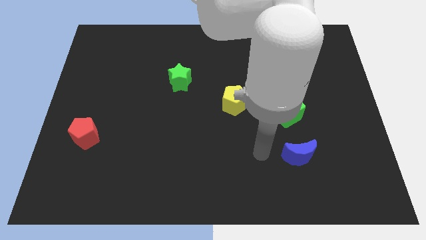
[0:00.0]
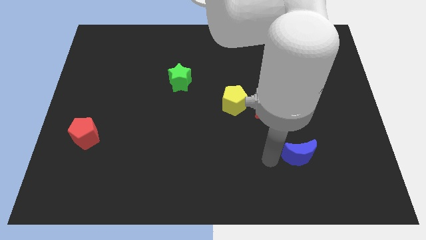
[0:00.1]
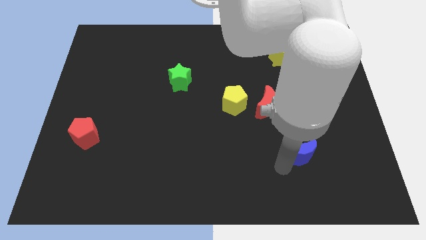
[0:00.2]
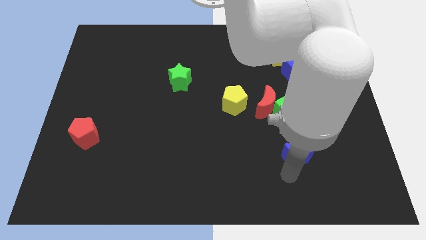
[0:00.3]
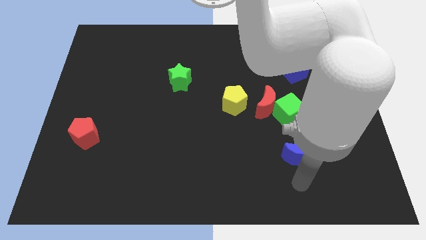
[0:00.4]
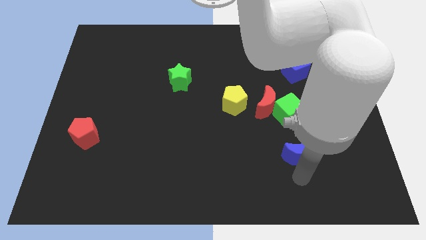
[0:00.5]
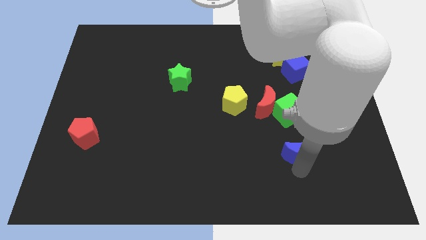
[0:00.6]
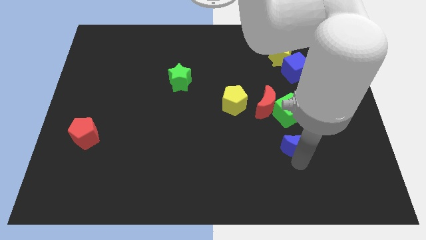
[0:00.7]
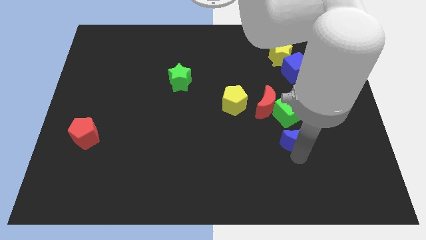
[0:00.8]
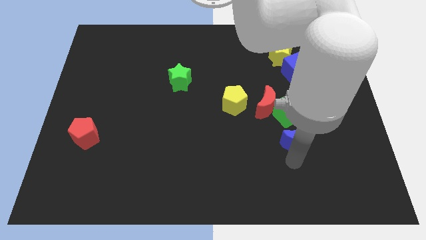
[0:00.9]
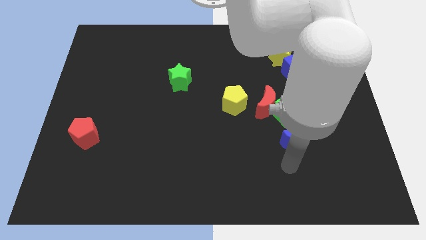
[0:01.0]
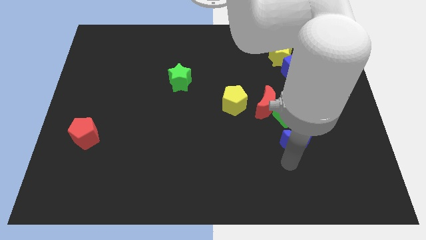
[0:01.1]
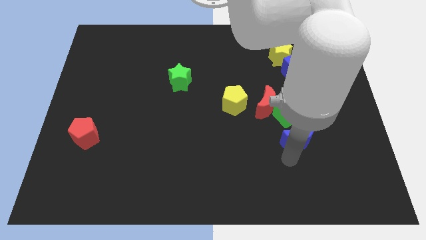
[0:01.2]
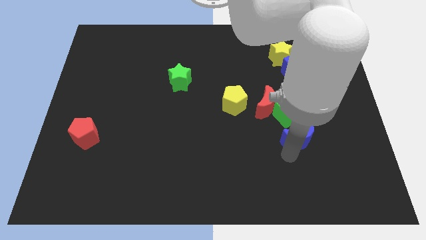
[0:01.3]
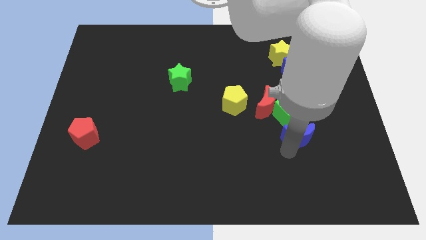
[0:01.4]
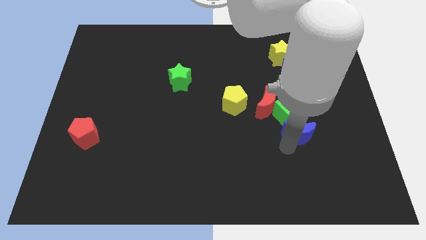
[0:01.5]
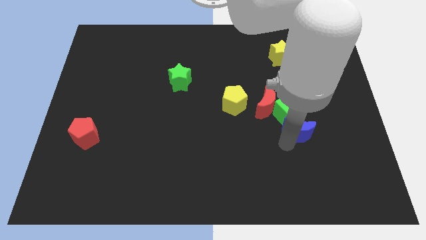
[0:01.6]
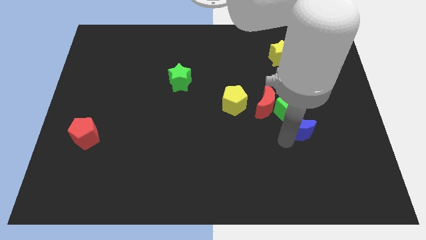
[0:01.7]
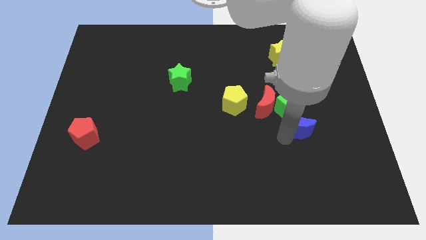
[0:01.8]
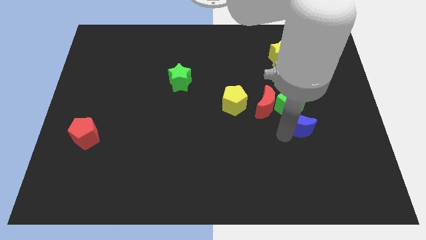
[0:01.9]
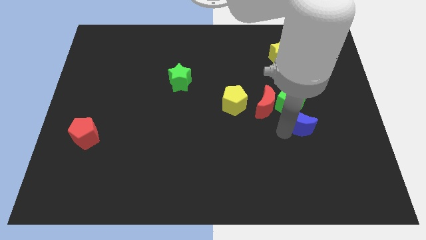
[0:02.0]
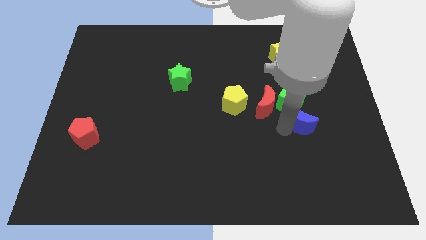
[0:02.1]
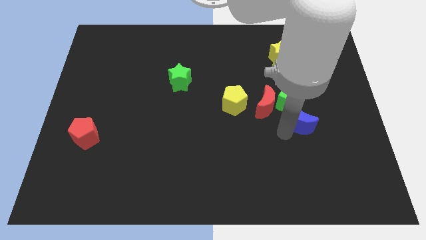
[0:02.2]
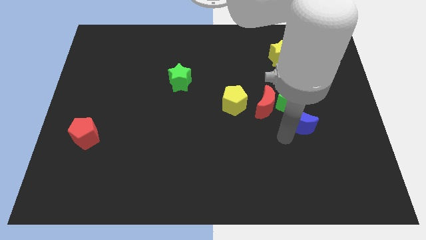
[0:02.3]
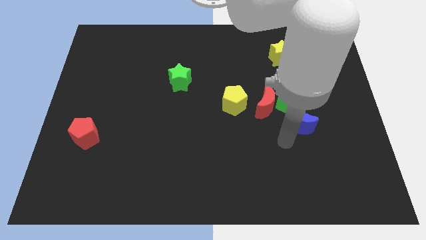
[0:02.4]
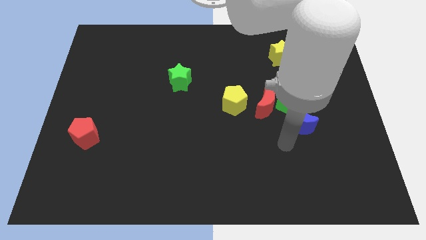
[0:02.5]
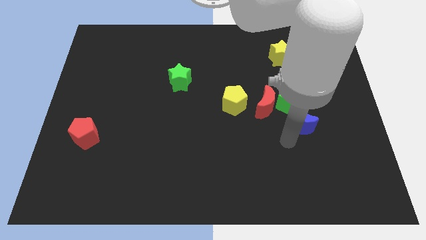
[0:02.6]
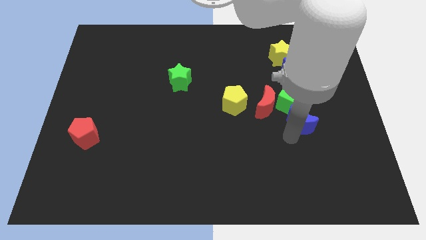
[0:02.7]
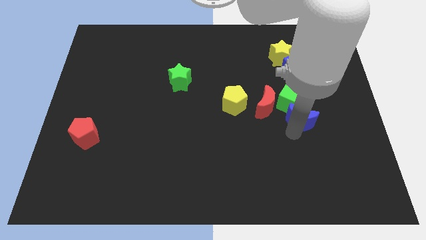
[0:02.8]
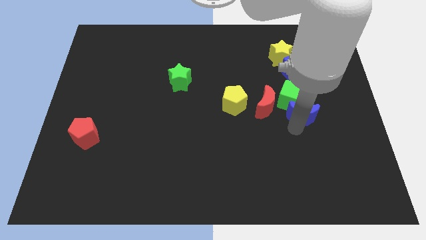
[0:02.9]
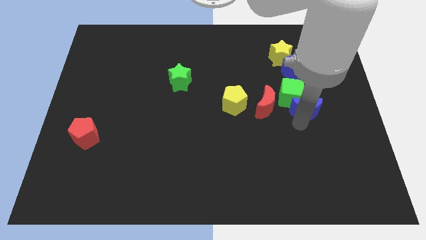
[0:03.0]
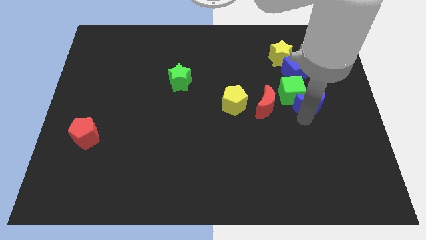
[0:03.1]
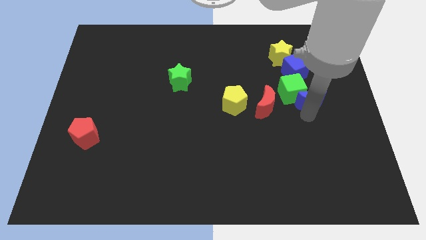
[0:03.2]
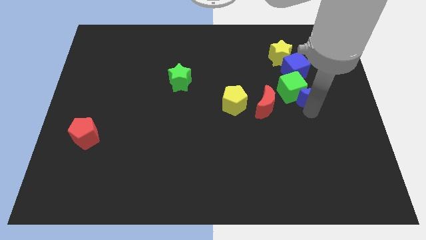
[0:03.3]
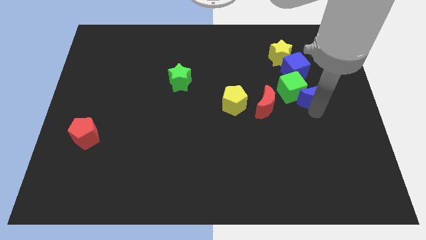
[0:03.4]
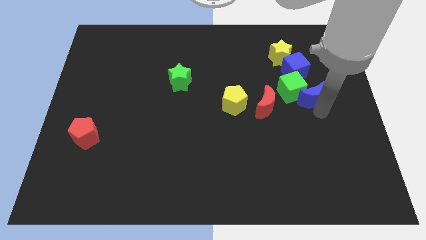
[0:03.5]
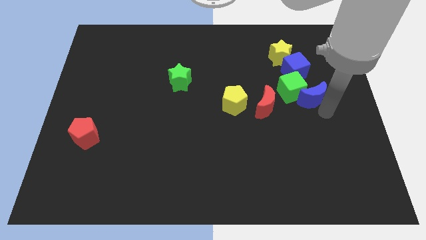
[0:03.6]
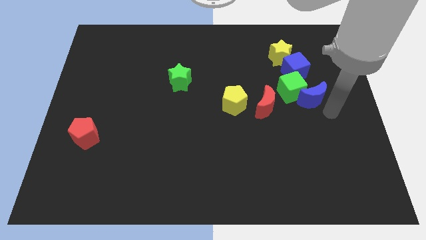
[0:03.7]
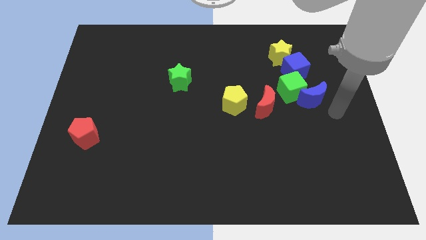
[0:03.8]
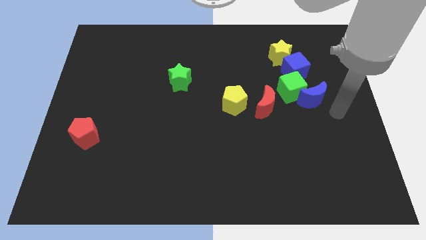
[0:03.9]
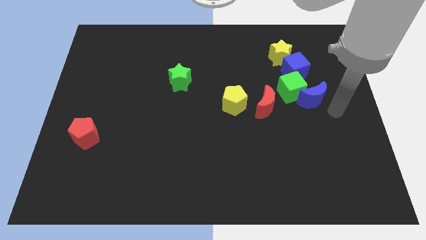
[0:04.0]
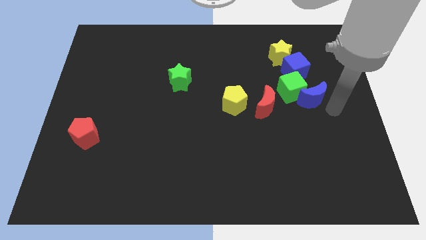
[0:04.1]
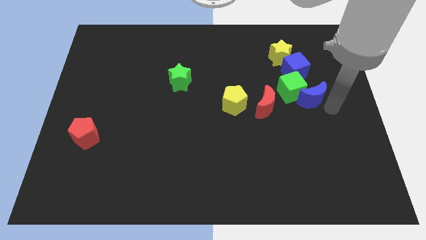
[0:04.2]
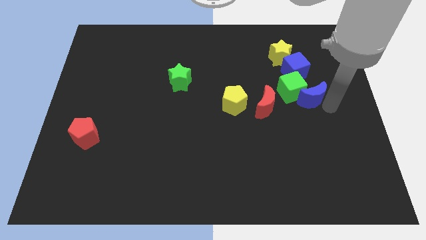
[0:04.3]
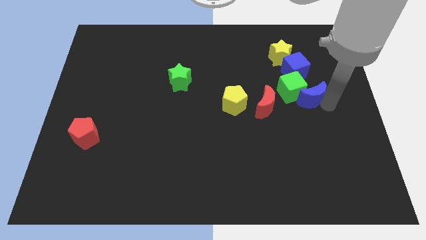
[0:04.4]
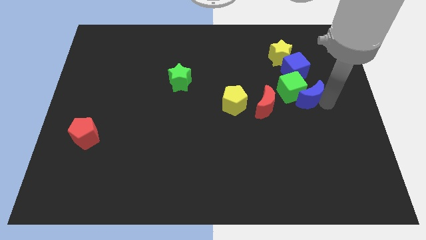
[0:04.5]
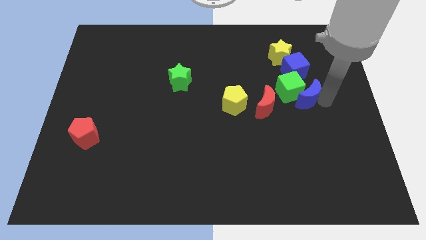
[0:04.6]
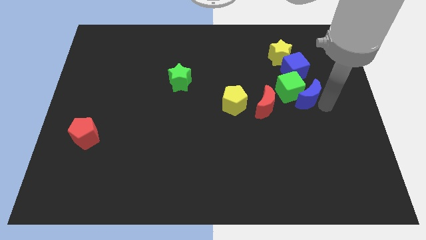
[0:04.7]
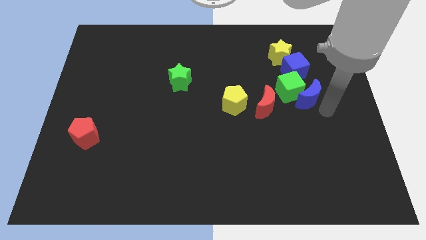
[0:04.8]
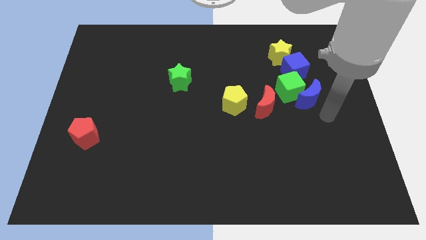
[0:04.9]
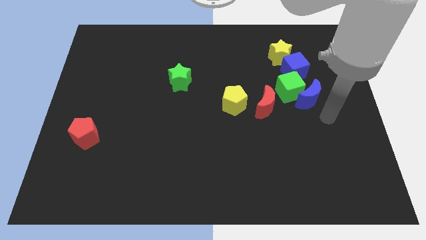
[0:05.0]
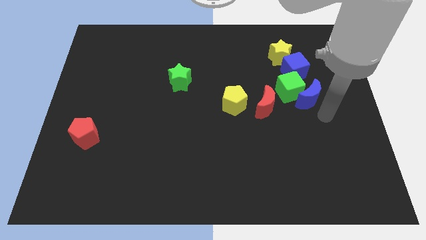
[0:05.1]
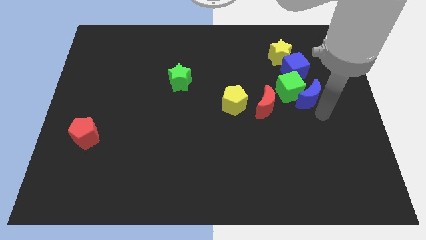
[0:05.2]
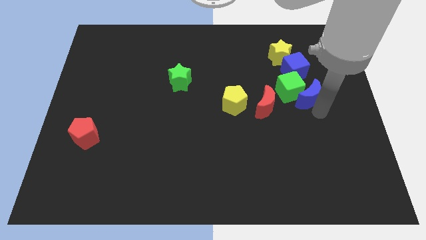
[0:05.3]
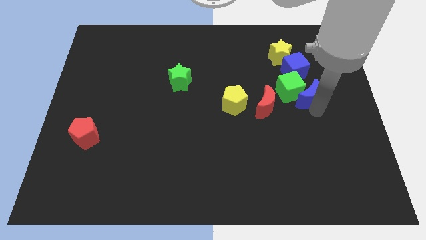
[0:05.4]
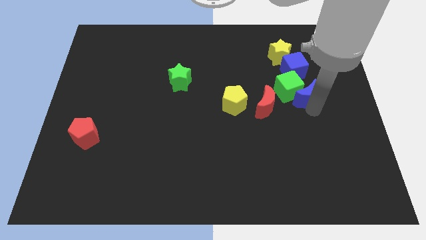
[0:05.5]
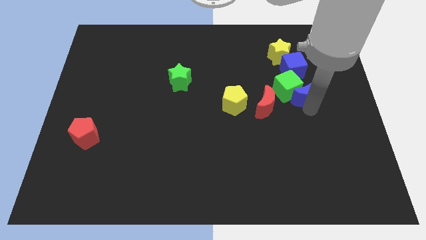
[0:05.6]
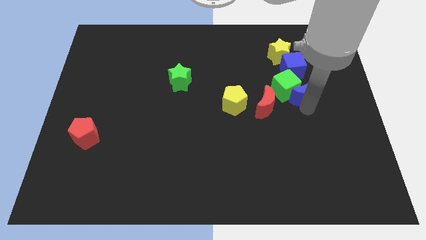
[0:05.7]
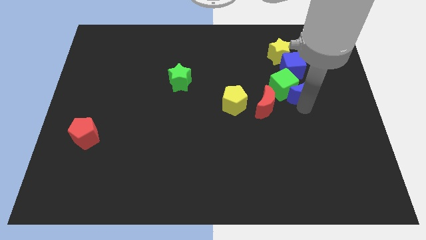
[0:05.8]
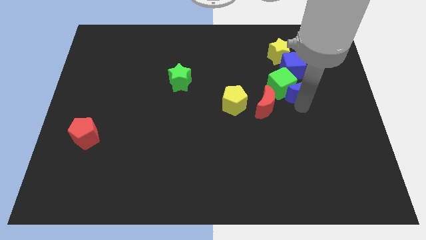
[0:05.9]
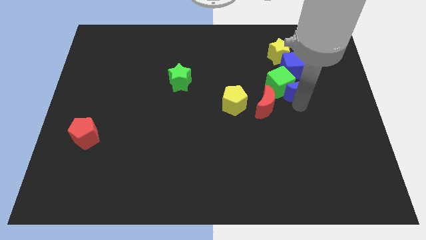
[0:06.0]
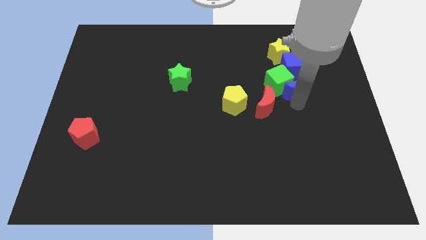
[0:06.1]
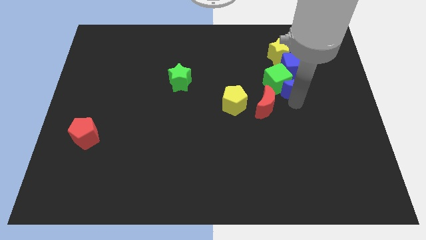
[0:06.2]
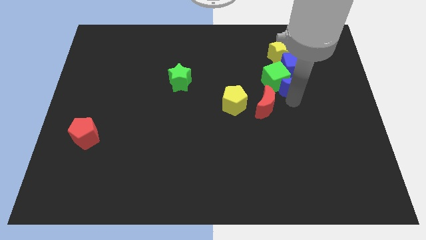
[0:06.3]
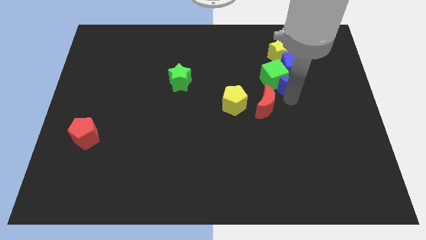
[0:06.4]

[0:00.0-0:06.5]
move the blue moon close to the blue cube

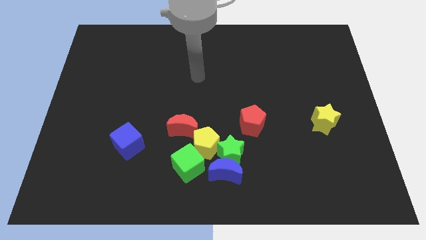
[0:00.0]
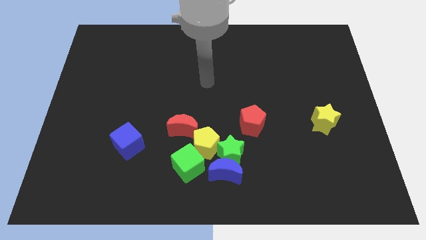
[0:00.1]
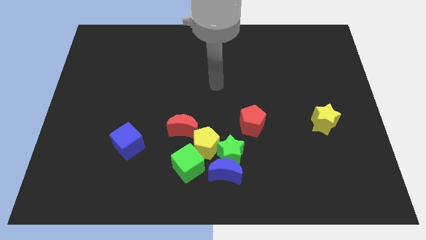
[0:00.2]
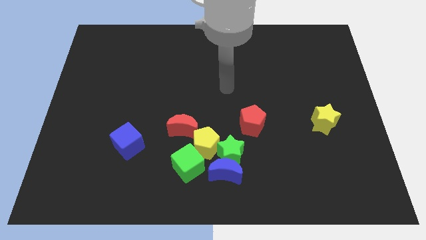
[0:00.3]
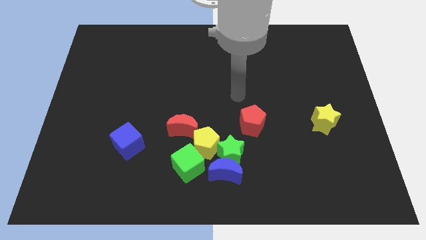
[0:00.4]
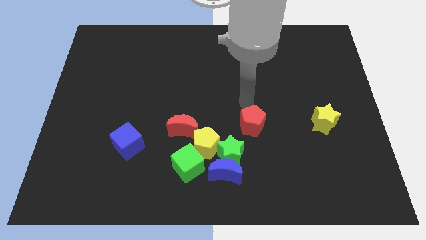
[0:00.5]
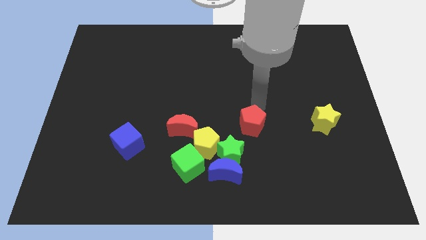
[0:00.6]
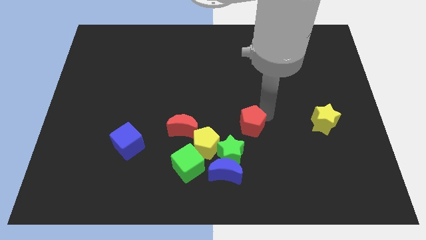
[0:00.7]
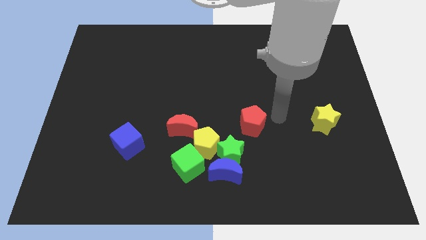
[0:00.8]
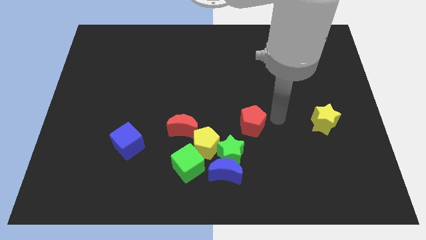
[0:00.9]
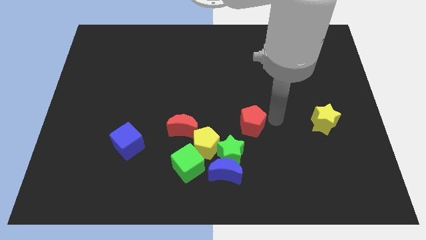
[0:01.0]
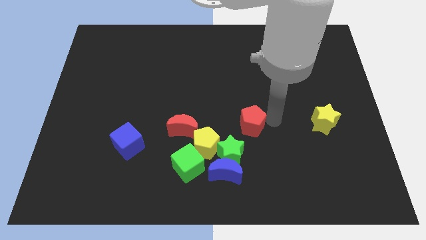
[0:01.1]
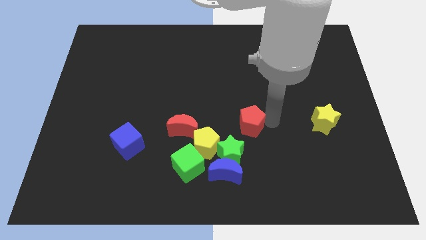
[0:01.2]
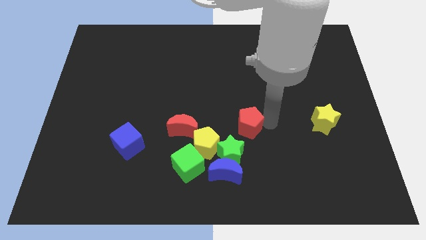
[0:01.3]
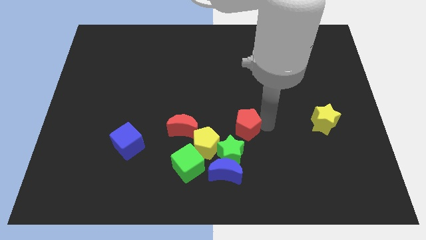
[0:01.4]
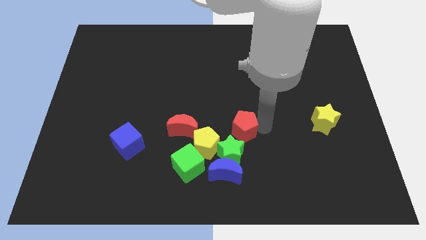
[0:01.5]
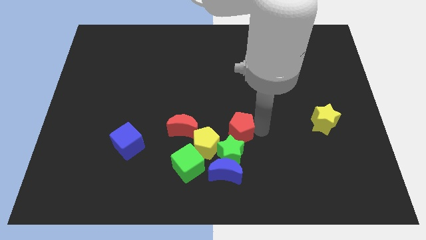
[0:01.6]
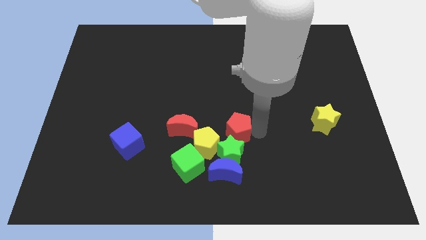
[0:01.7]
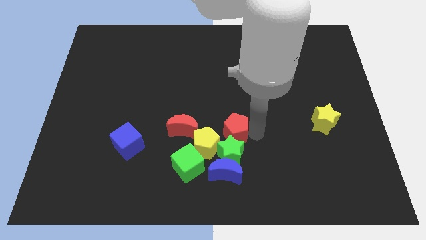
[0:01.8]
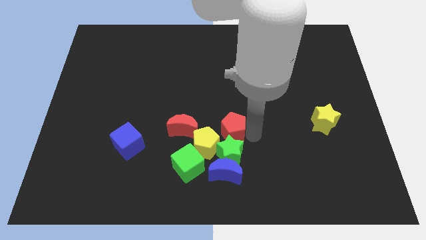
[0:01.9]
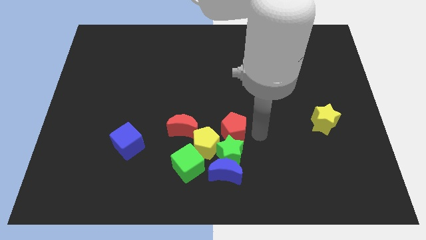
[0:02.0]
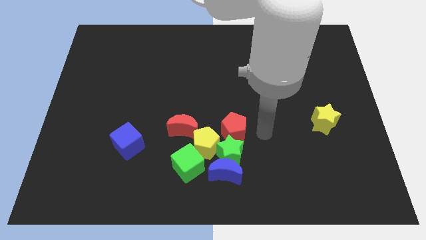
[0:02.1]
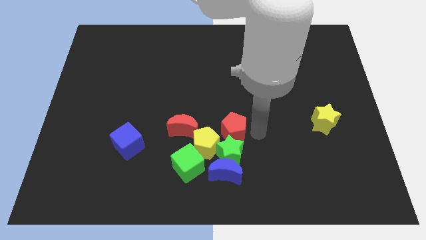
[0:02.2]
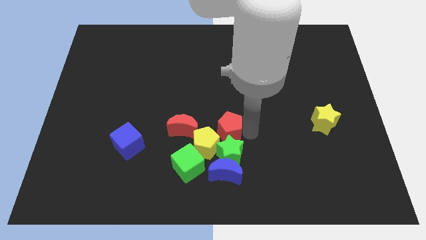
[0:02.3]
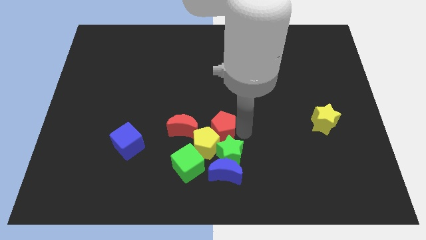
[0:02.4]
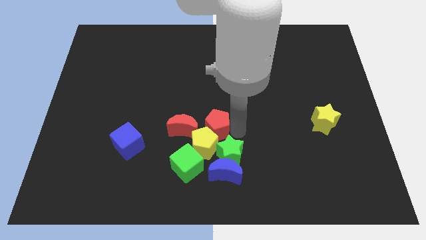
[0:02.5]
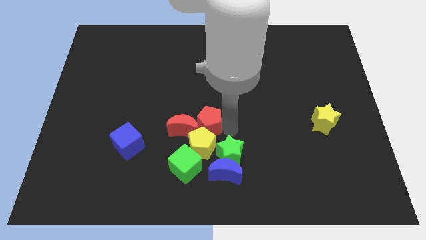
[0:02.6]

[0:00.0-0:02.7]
slide the red pentagon towards the red moon
